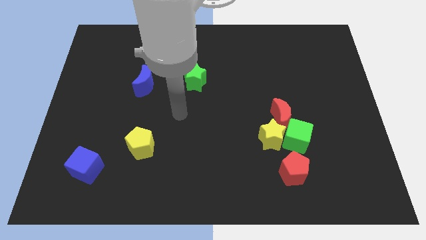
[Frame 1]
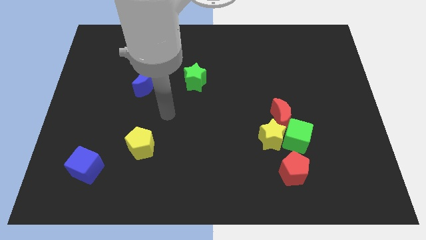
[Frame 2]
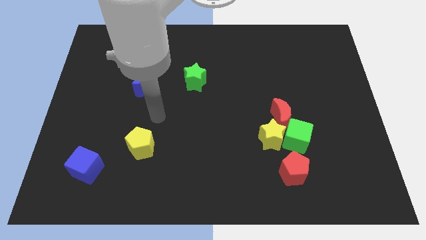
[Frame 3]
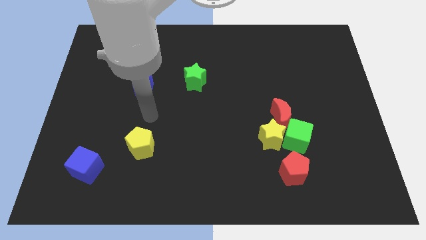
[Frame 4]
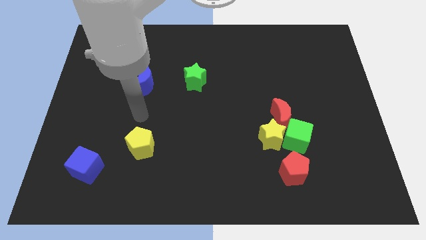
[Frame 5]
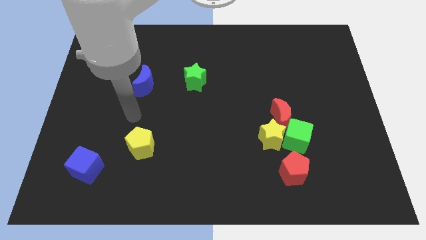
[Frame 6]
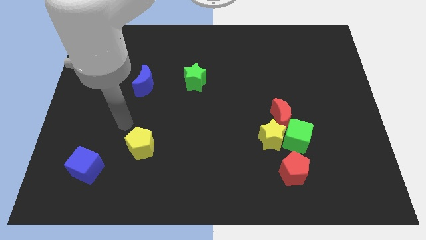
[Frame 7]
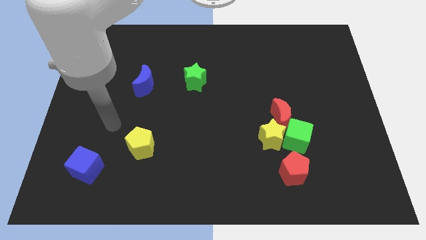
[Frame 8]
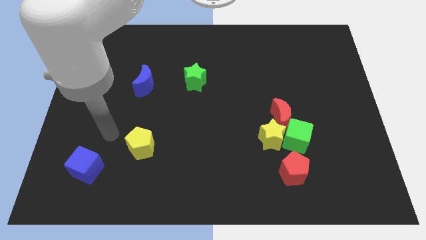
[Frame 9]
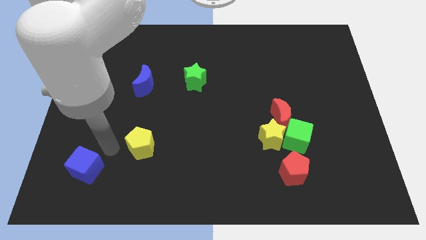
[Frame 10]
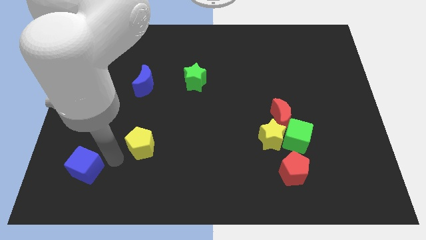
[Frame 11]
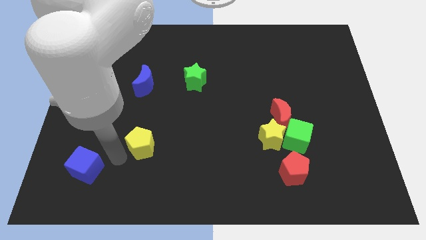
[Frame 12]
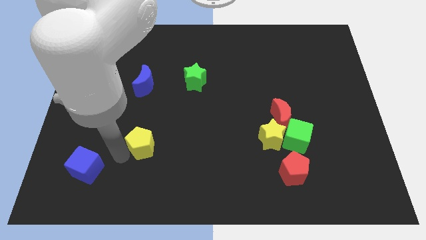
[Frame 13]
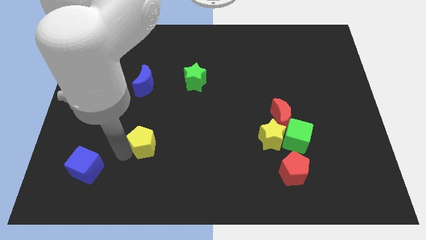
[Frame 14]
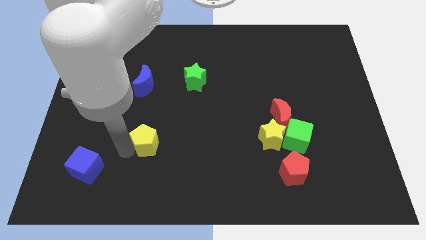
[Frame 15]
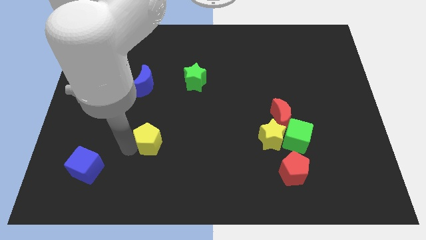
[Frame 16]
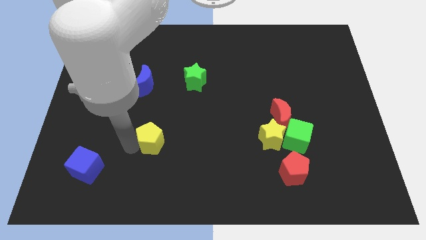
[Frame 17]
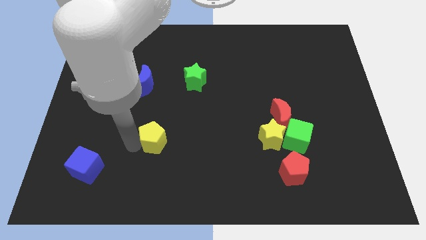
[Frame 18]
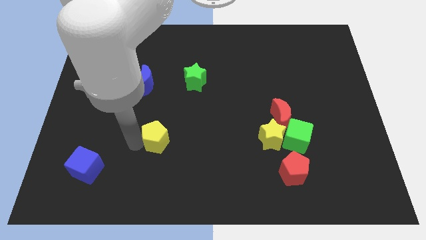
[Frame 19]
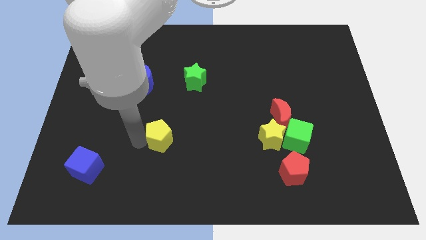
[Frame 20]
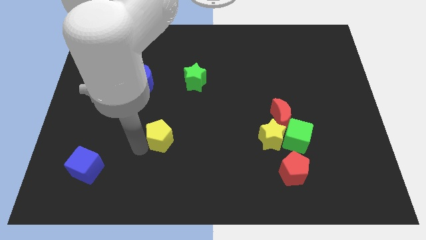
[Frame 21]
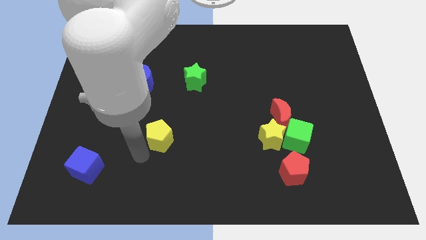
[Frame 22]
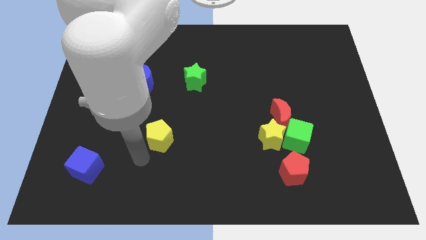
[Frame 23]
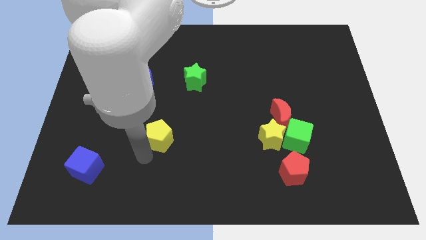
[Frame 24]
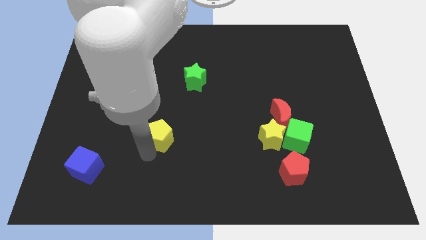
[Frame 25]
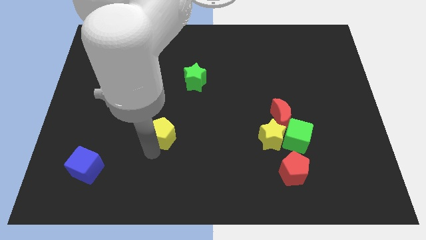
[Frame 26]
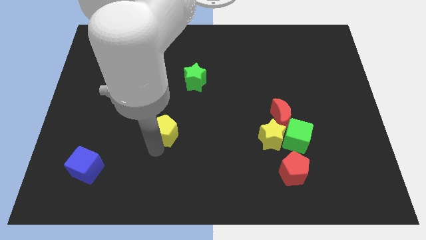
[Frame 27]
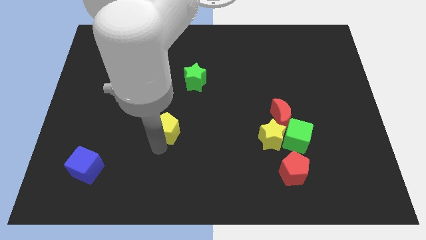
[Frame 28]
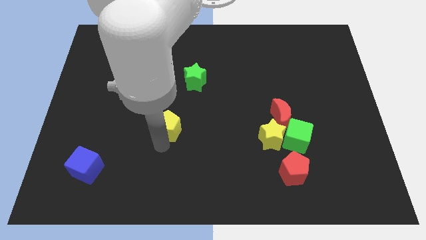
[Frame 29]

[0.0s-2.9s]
slightly push the yellow pentagon up and to the right

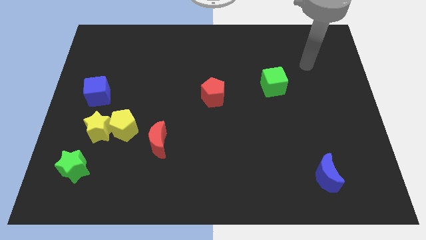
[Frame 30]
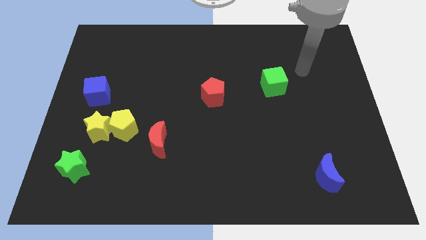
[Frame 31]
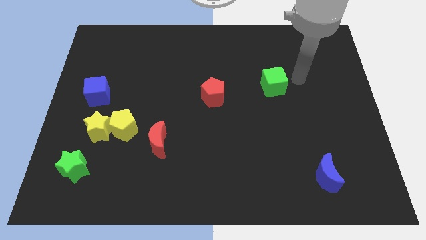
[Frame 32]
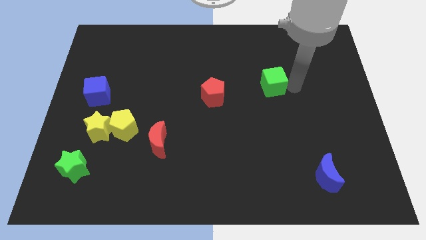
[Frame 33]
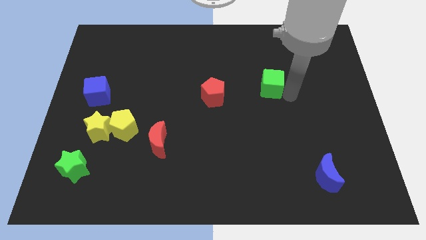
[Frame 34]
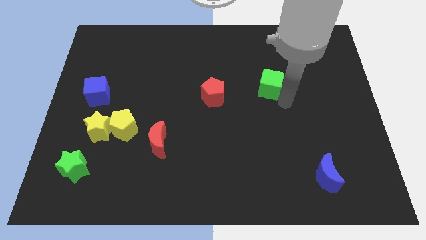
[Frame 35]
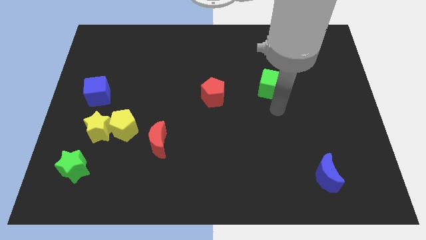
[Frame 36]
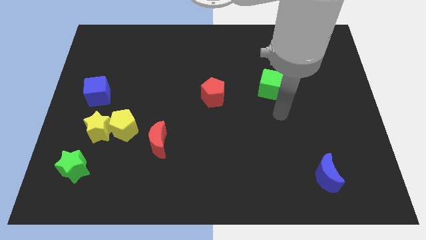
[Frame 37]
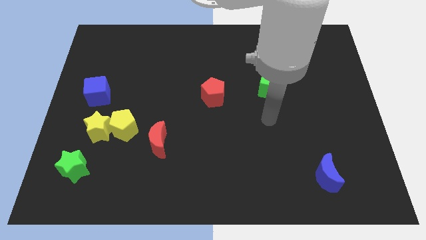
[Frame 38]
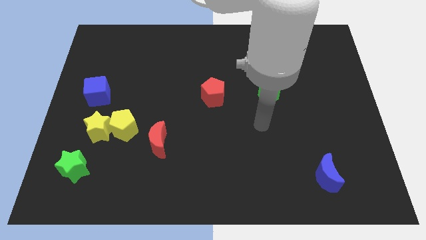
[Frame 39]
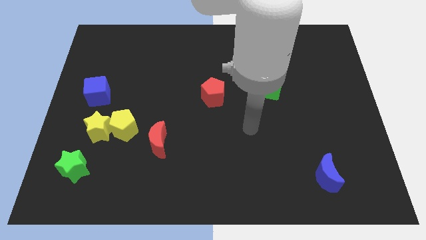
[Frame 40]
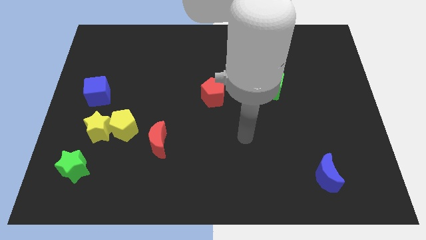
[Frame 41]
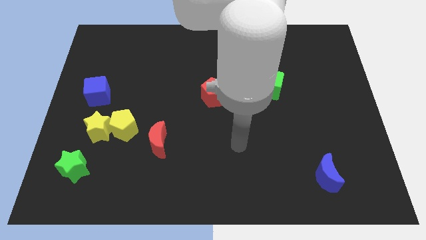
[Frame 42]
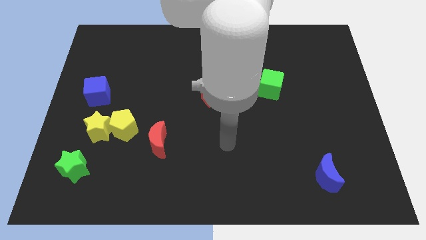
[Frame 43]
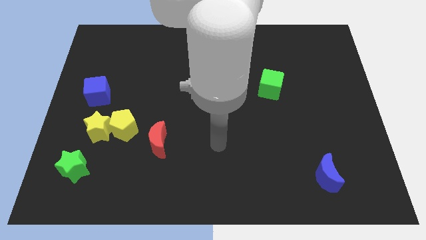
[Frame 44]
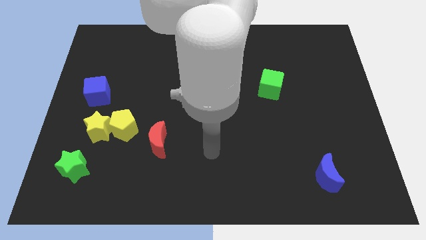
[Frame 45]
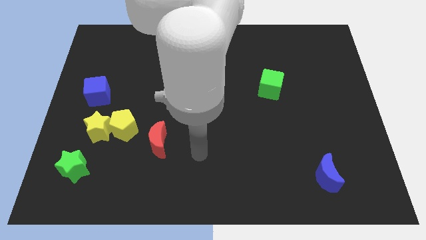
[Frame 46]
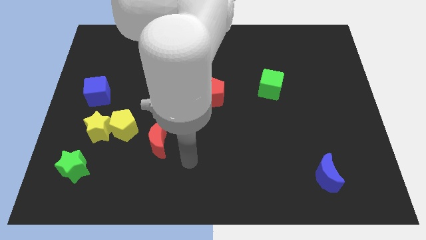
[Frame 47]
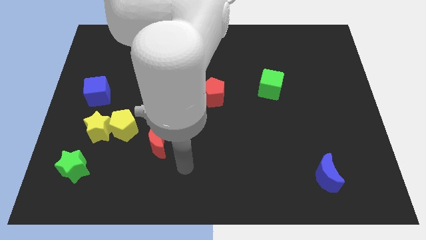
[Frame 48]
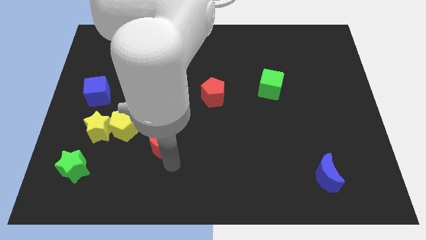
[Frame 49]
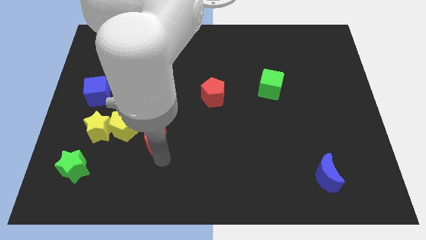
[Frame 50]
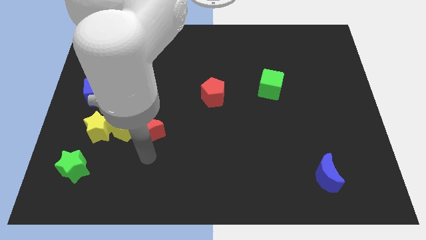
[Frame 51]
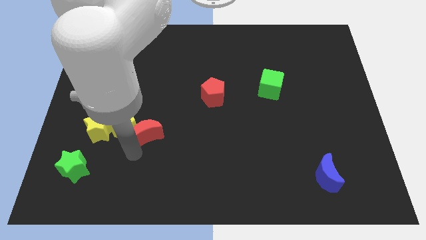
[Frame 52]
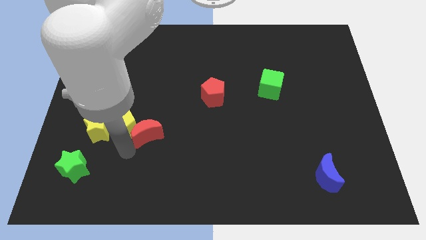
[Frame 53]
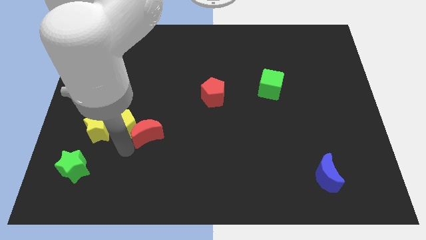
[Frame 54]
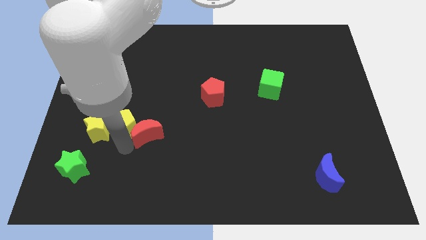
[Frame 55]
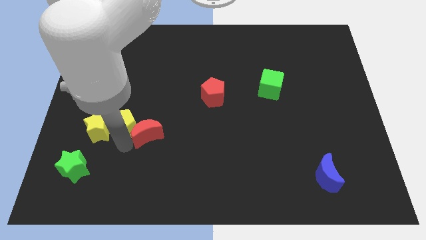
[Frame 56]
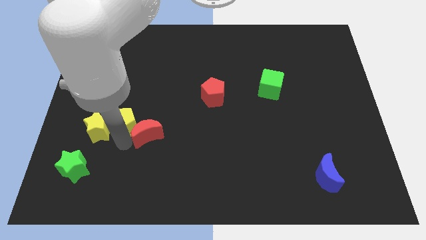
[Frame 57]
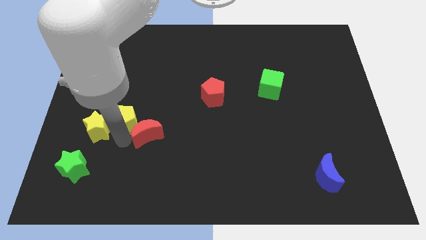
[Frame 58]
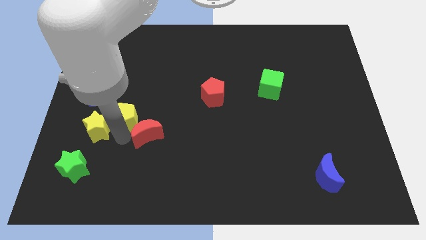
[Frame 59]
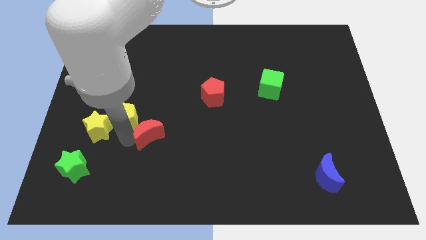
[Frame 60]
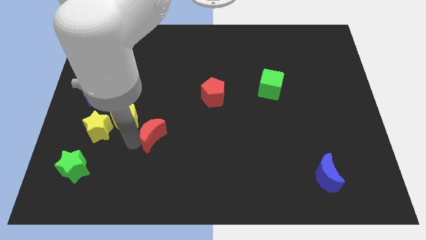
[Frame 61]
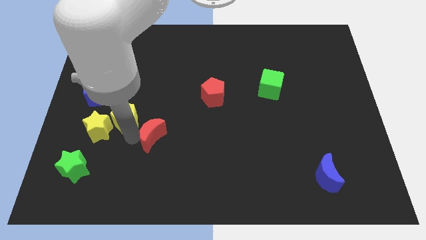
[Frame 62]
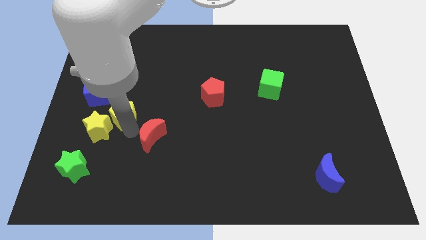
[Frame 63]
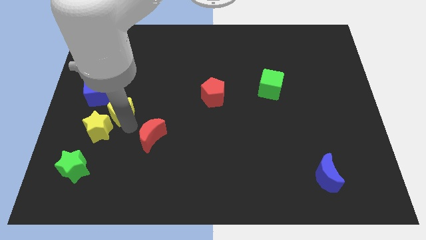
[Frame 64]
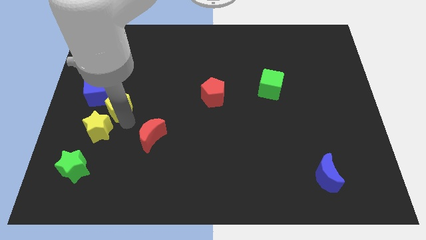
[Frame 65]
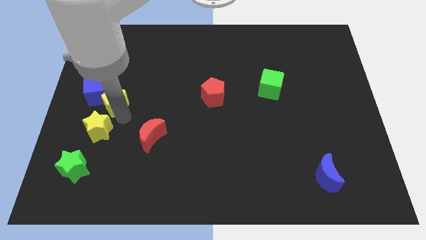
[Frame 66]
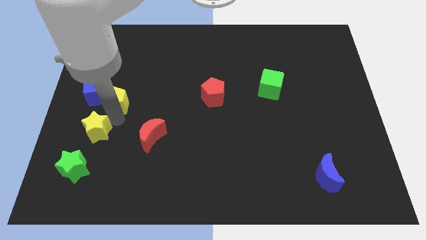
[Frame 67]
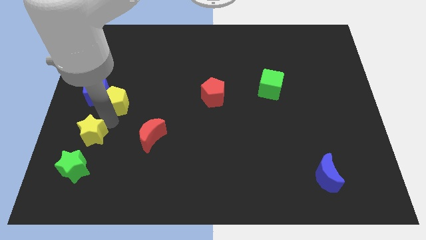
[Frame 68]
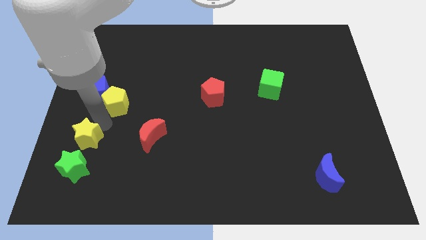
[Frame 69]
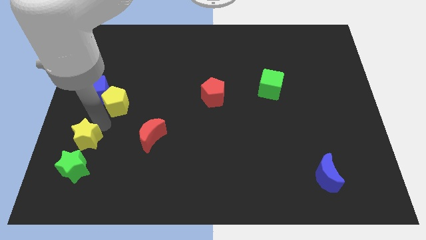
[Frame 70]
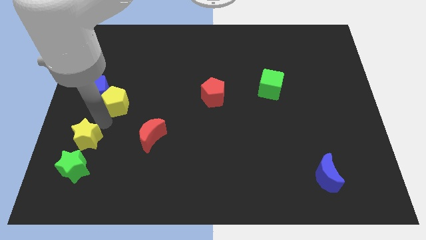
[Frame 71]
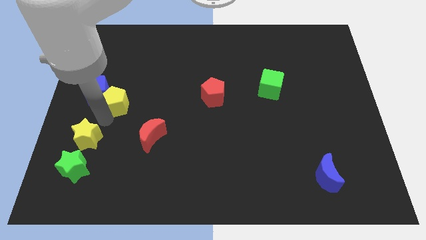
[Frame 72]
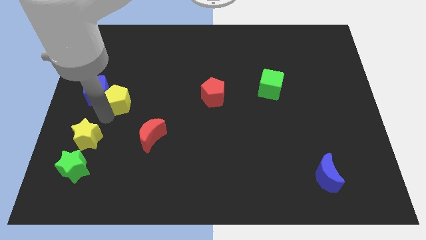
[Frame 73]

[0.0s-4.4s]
slide the yellow pentagon up a little

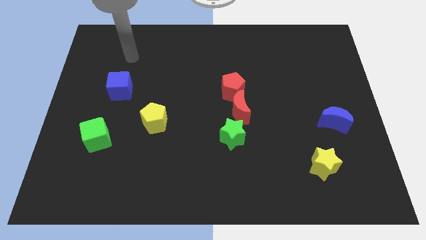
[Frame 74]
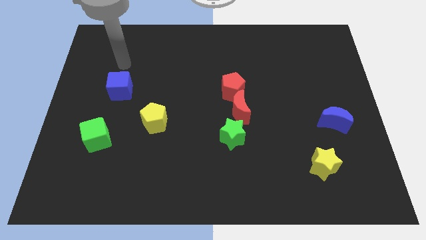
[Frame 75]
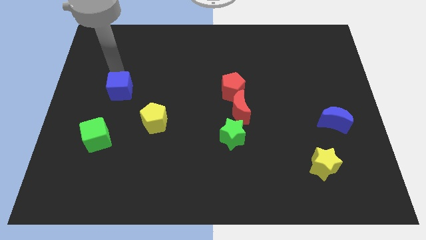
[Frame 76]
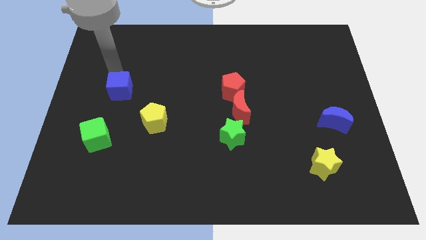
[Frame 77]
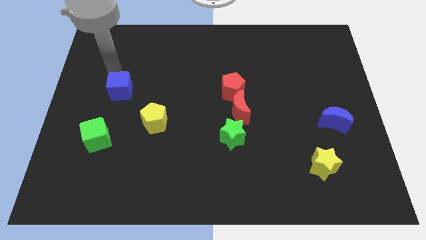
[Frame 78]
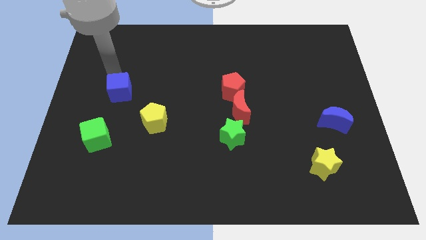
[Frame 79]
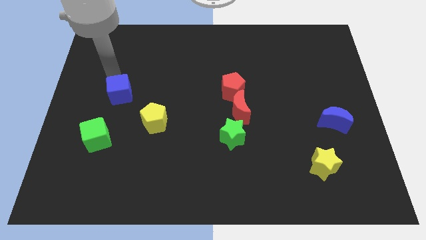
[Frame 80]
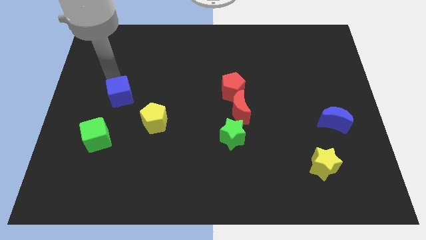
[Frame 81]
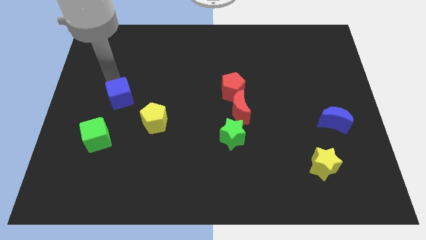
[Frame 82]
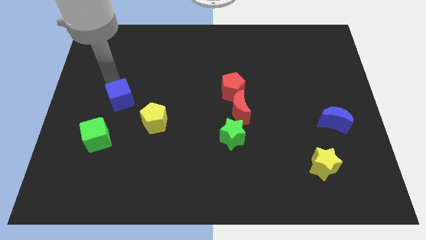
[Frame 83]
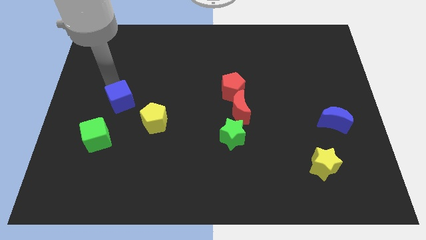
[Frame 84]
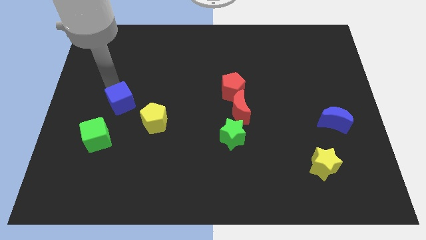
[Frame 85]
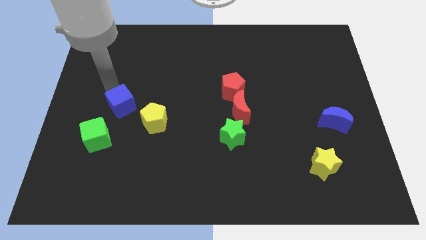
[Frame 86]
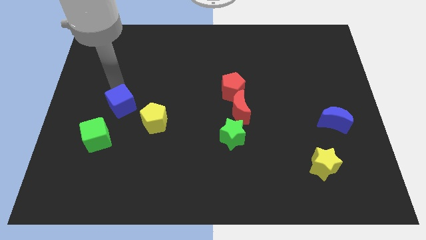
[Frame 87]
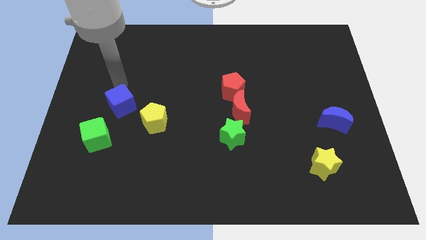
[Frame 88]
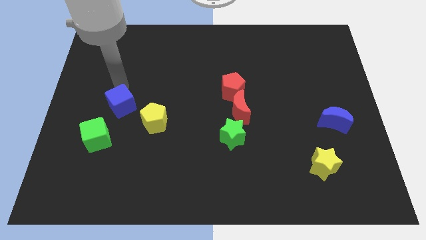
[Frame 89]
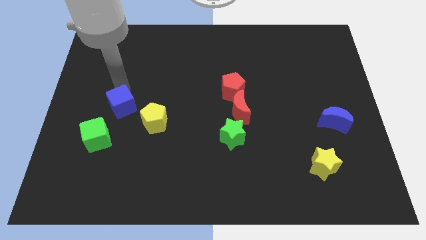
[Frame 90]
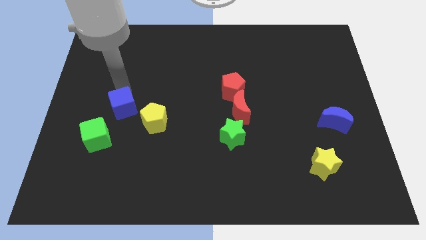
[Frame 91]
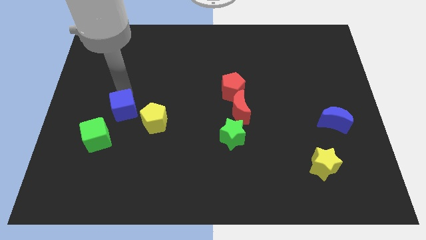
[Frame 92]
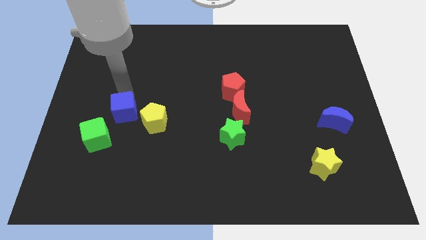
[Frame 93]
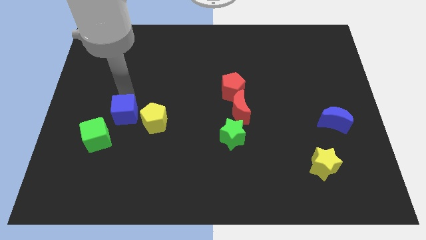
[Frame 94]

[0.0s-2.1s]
push the blue cube downwards a bit
